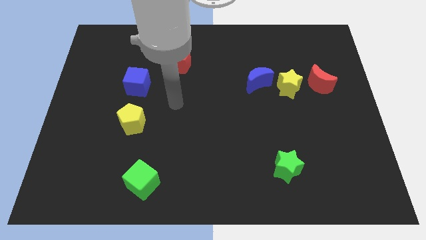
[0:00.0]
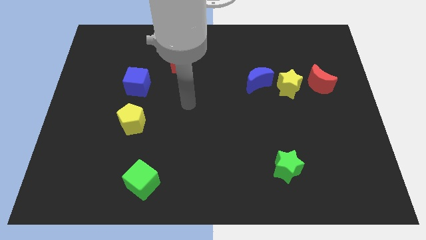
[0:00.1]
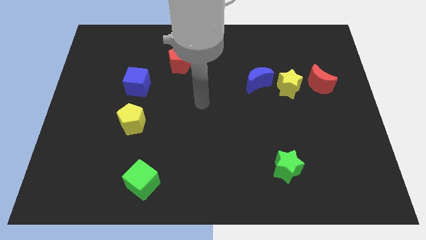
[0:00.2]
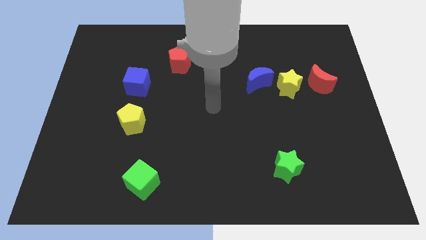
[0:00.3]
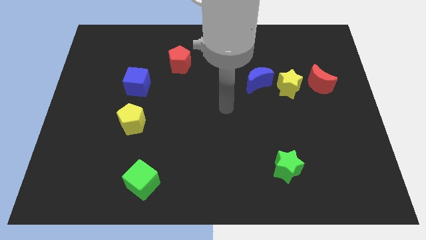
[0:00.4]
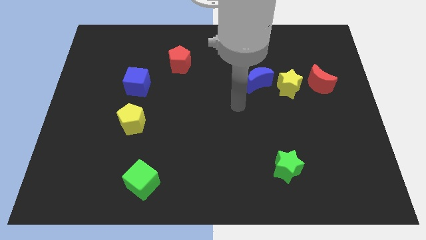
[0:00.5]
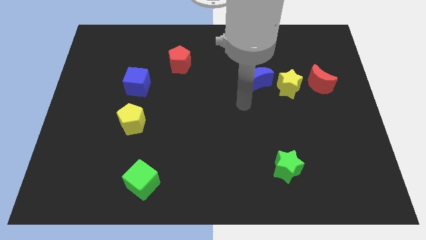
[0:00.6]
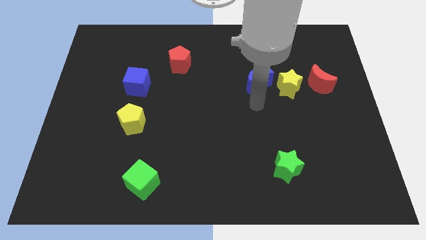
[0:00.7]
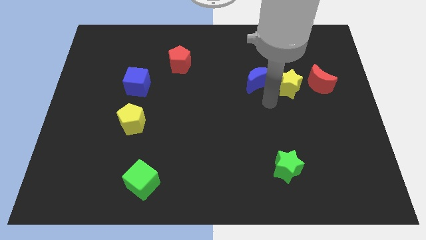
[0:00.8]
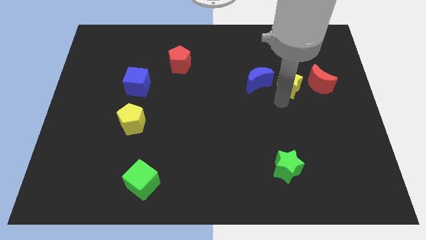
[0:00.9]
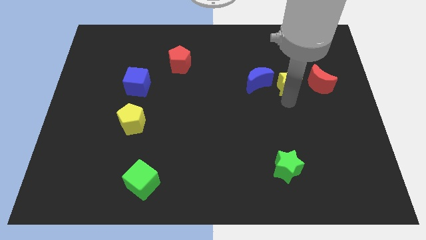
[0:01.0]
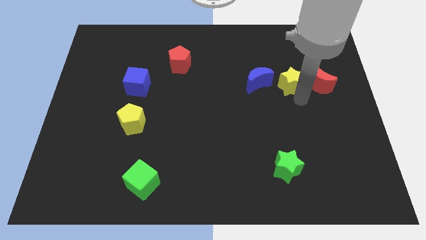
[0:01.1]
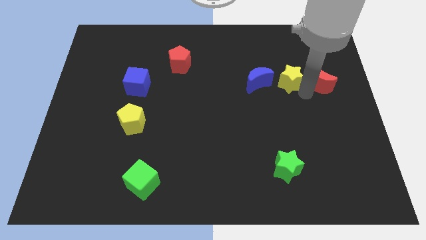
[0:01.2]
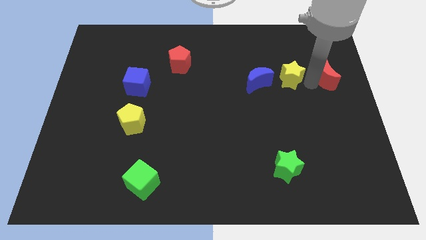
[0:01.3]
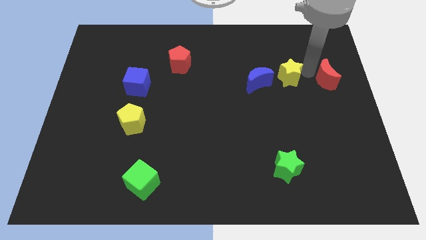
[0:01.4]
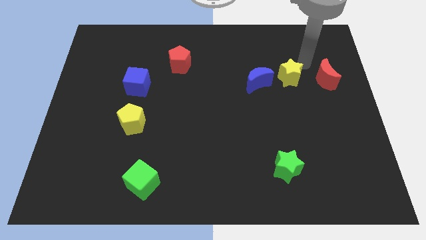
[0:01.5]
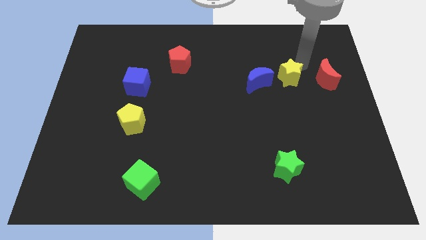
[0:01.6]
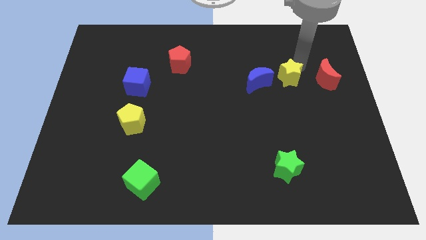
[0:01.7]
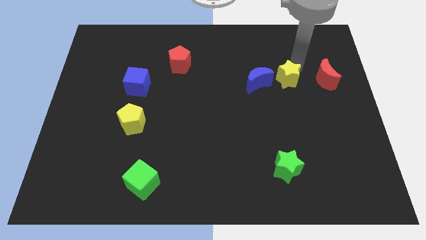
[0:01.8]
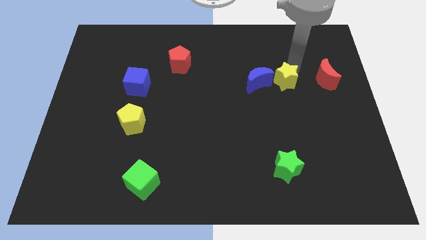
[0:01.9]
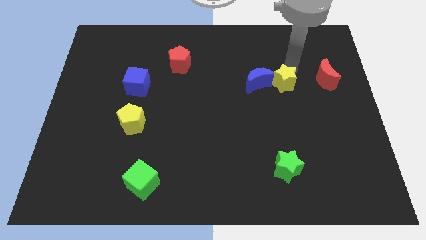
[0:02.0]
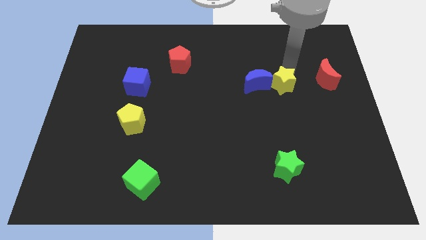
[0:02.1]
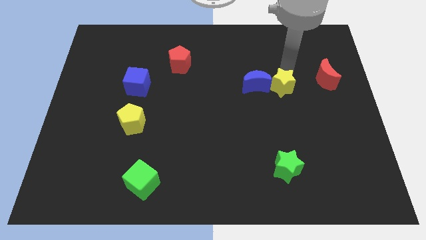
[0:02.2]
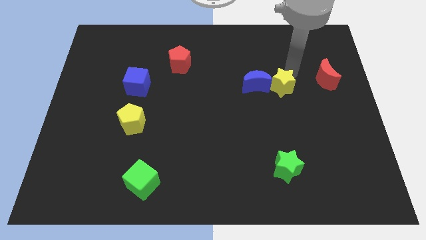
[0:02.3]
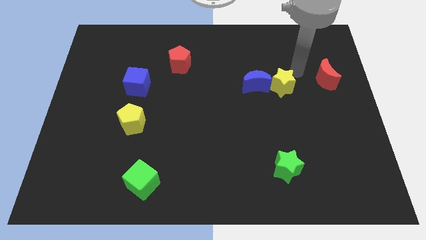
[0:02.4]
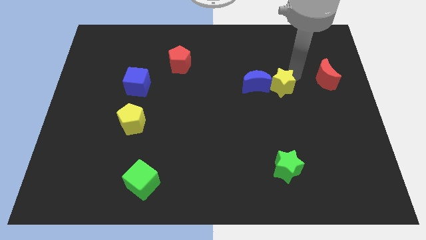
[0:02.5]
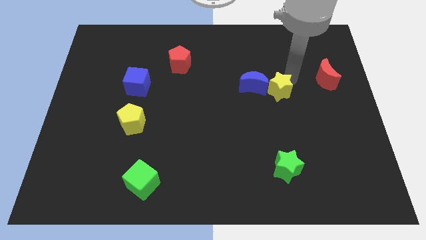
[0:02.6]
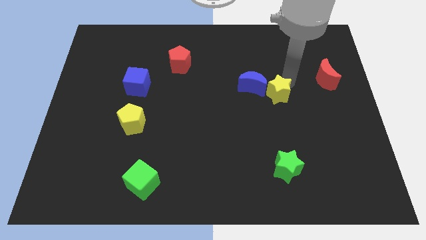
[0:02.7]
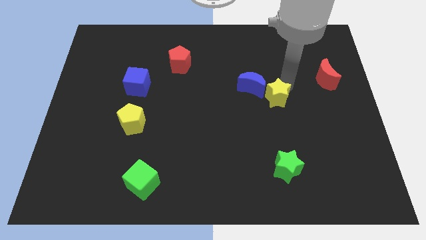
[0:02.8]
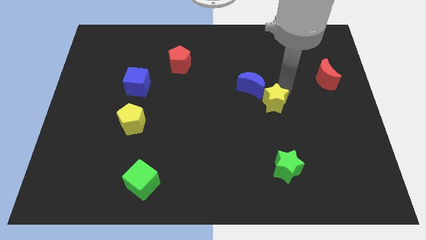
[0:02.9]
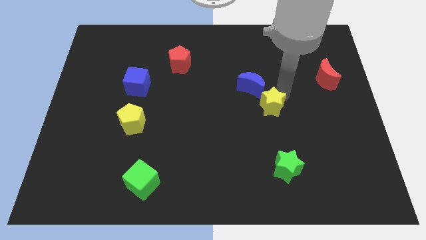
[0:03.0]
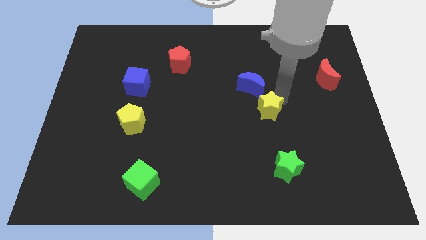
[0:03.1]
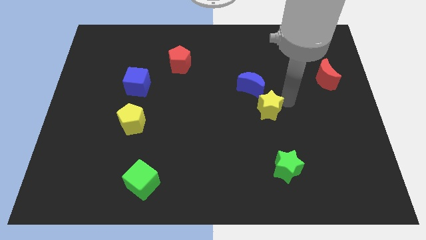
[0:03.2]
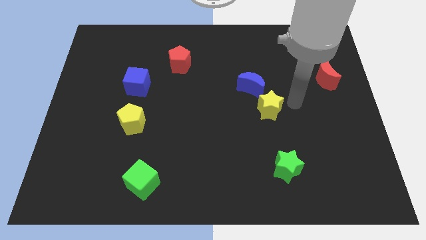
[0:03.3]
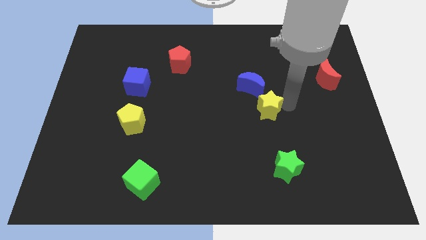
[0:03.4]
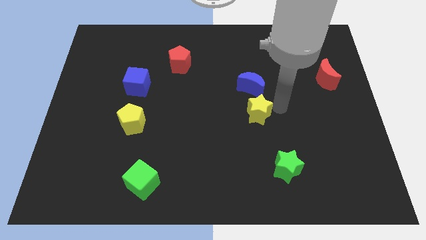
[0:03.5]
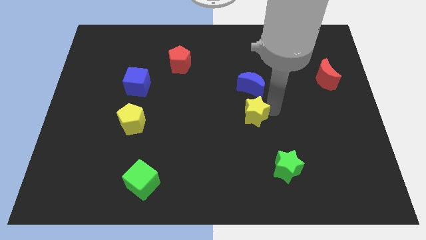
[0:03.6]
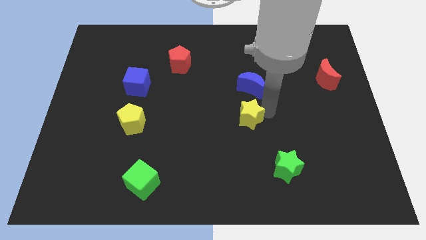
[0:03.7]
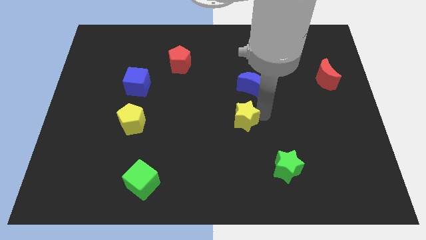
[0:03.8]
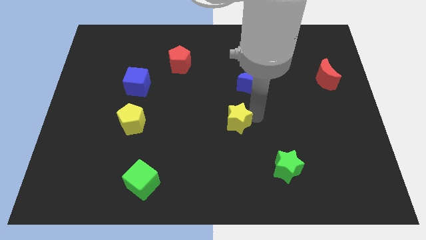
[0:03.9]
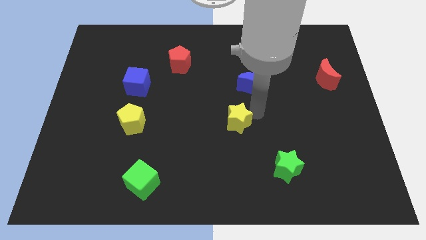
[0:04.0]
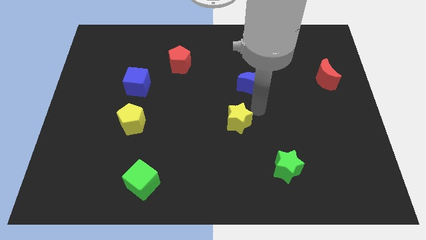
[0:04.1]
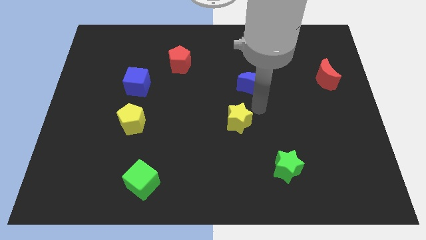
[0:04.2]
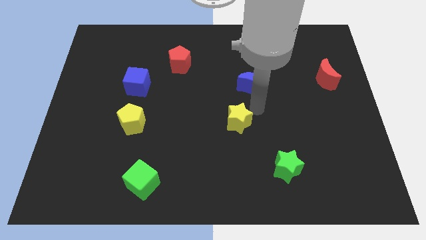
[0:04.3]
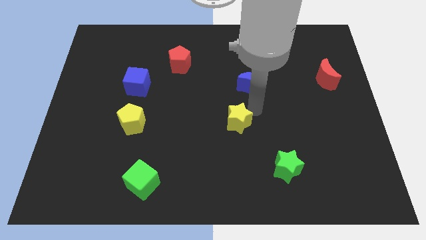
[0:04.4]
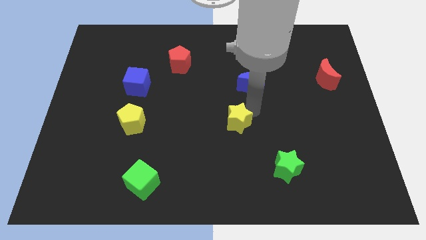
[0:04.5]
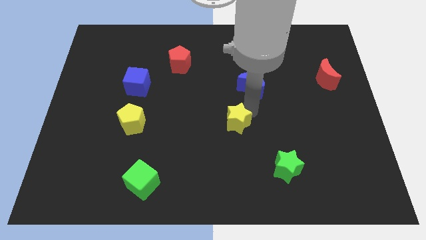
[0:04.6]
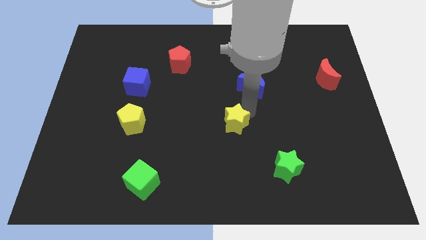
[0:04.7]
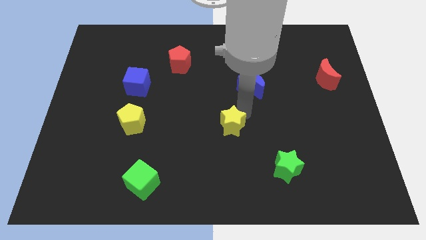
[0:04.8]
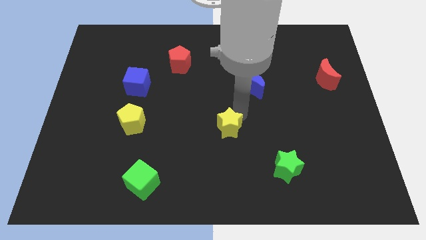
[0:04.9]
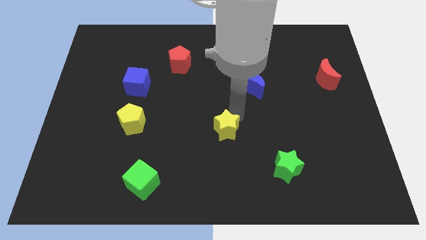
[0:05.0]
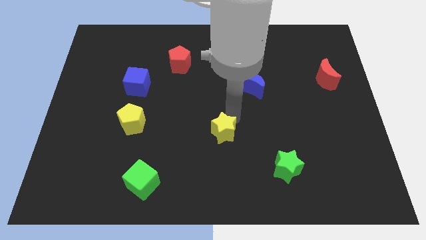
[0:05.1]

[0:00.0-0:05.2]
slide the yellow star downwards and to the left diagonally

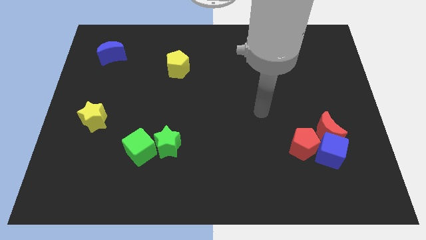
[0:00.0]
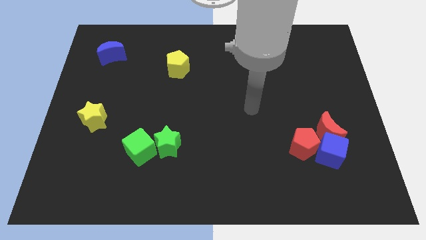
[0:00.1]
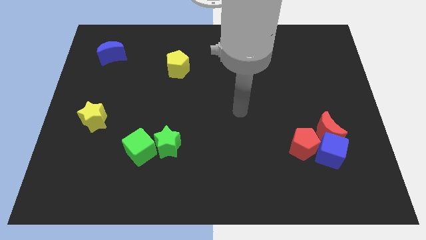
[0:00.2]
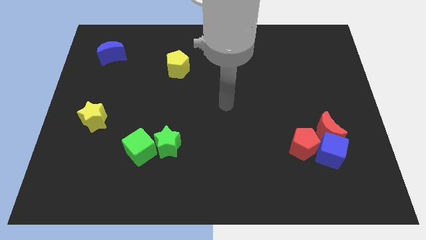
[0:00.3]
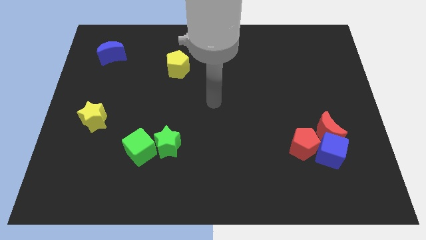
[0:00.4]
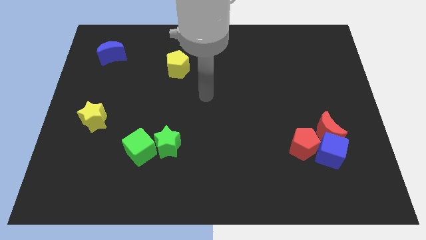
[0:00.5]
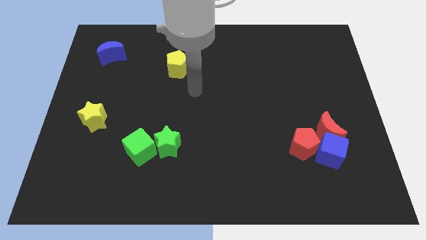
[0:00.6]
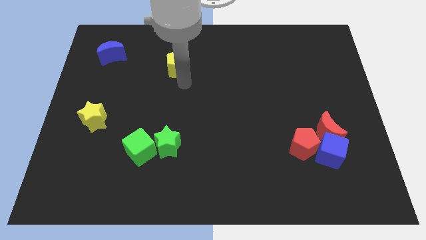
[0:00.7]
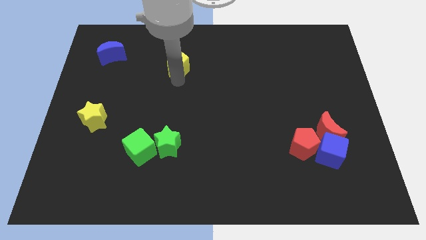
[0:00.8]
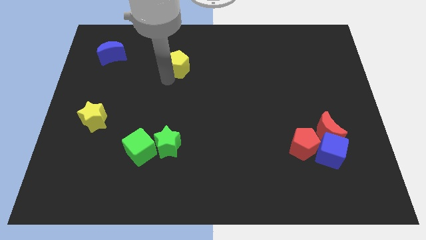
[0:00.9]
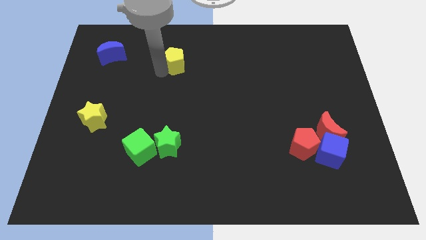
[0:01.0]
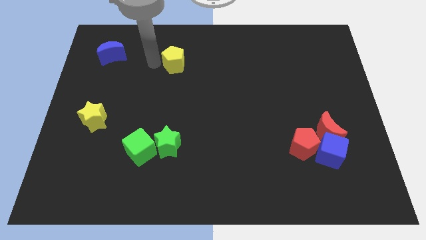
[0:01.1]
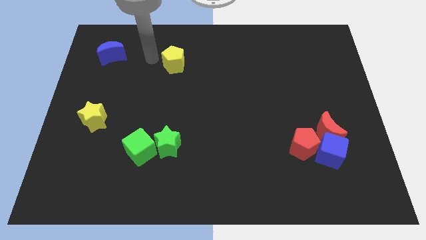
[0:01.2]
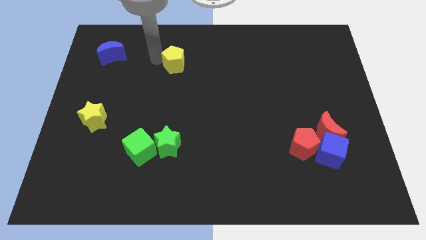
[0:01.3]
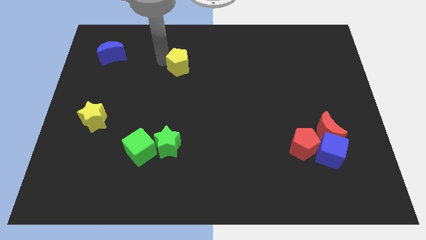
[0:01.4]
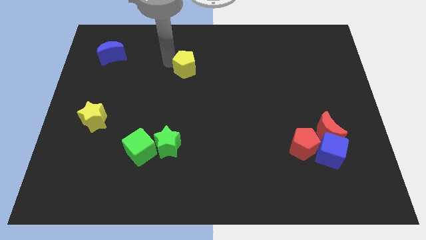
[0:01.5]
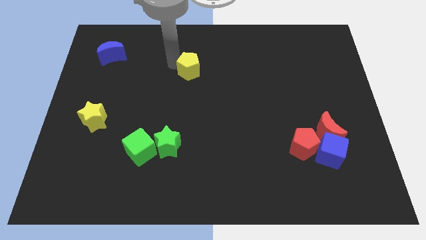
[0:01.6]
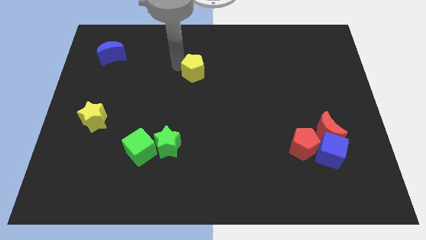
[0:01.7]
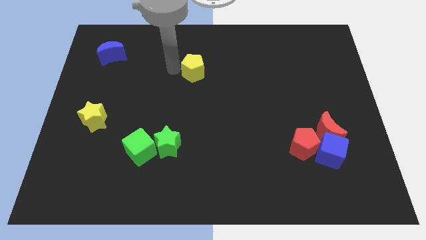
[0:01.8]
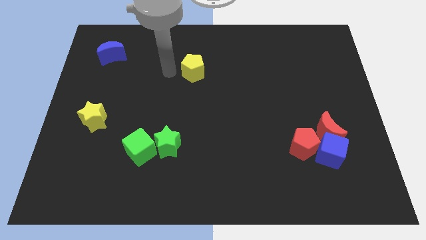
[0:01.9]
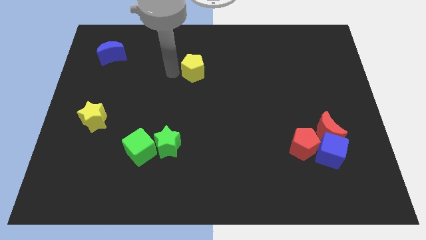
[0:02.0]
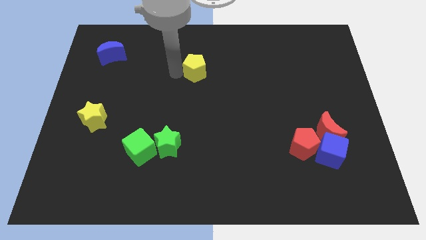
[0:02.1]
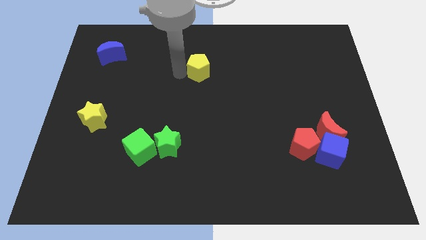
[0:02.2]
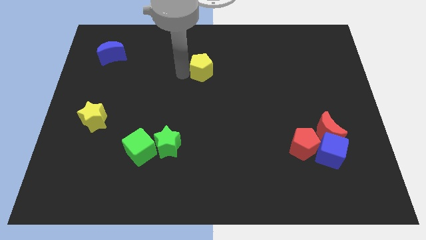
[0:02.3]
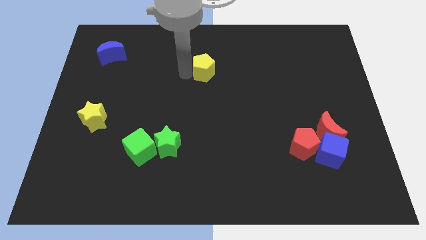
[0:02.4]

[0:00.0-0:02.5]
slightly slide the yellow pentagon to the right

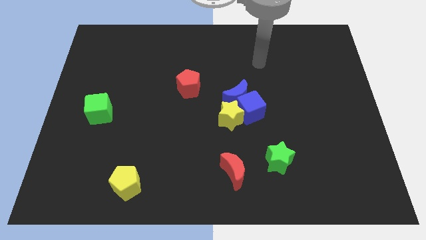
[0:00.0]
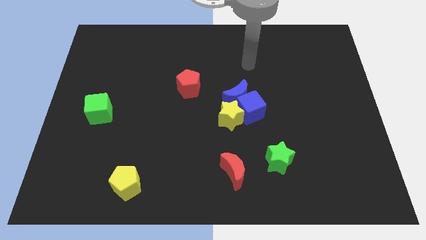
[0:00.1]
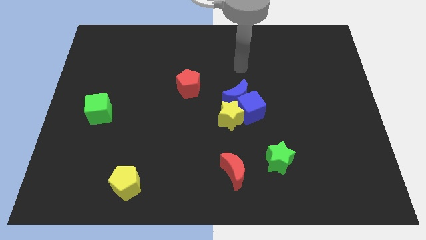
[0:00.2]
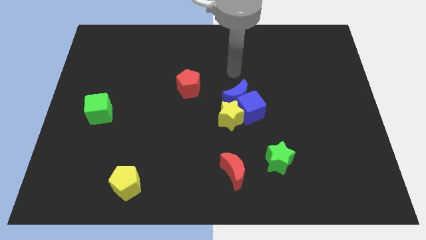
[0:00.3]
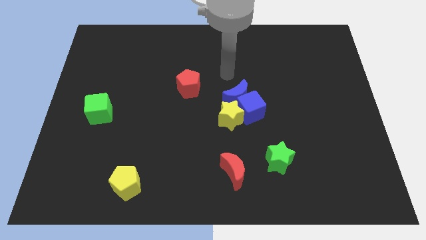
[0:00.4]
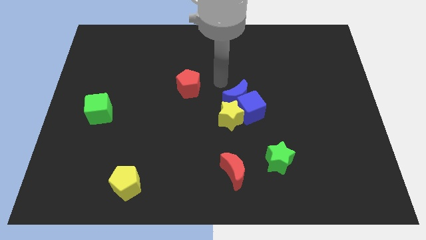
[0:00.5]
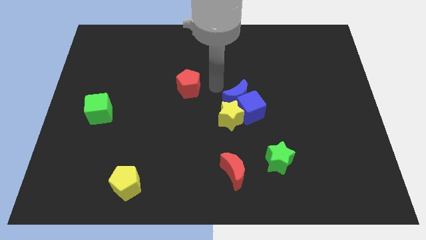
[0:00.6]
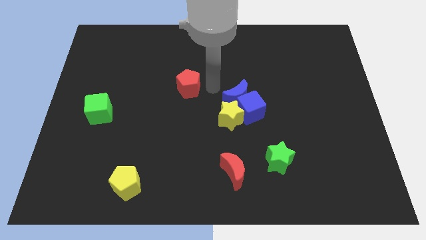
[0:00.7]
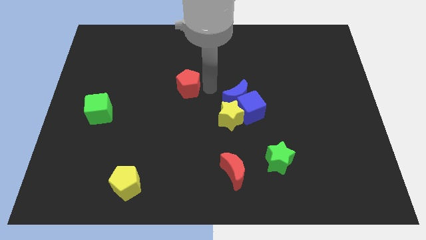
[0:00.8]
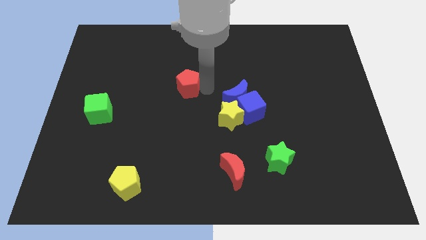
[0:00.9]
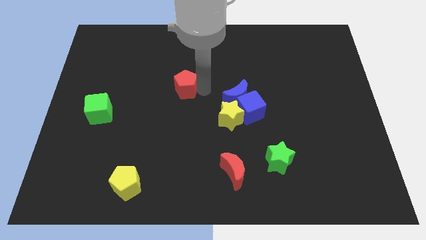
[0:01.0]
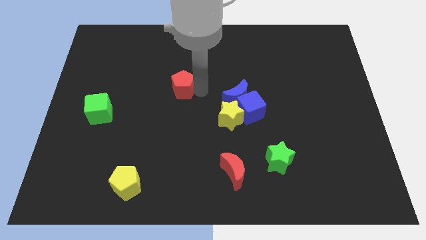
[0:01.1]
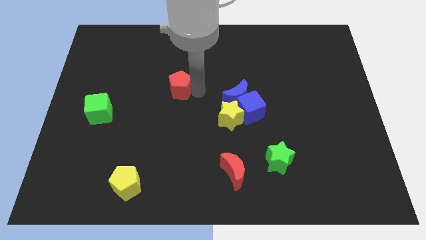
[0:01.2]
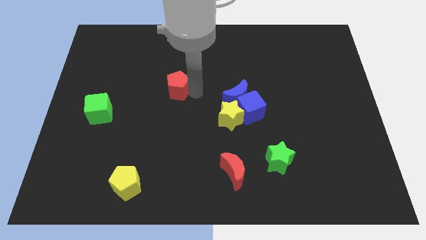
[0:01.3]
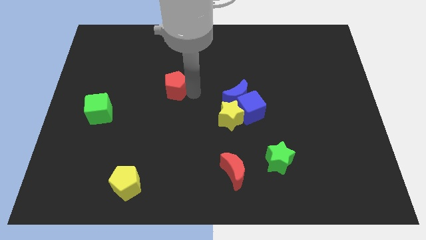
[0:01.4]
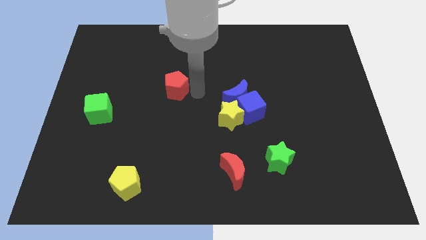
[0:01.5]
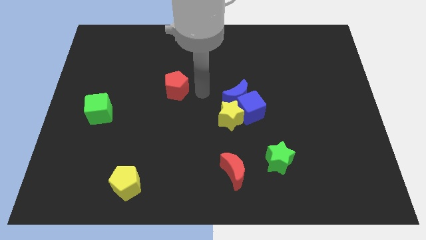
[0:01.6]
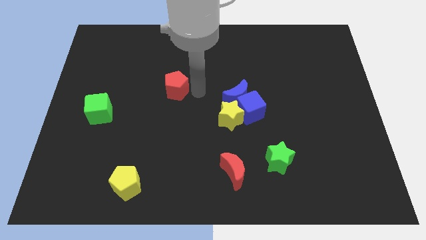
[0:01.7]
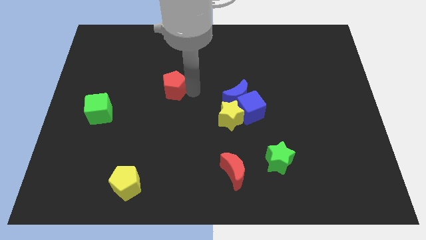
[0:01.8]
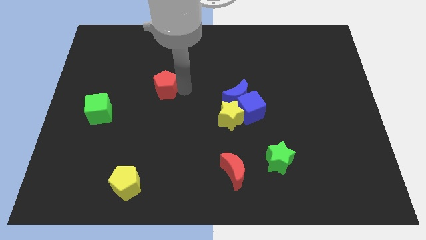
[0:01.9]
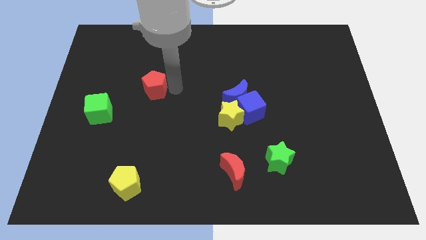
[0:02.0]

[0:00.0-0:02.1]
push the red pentagon a bit to the left
